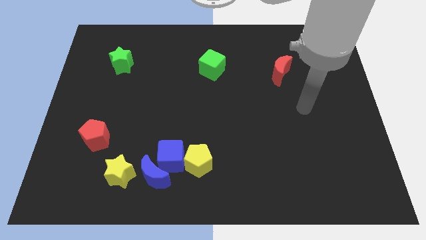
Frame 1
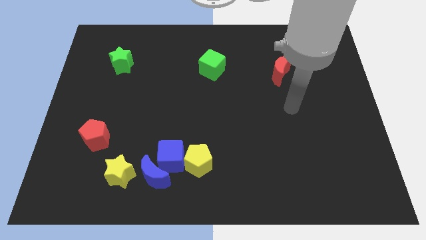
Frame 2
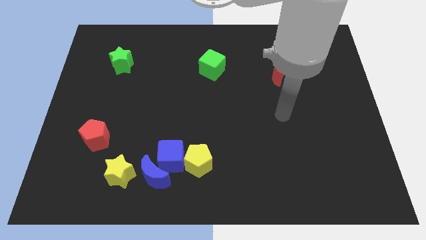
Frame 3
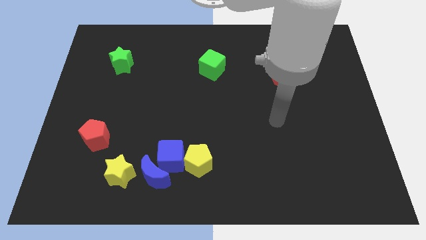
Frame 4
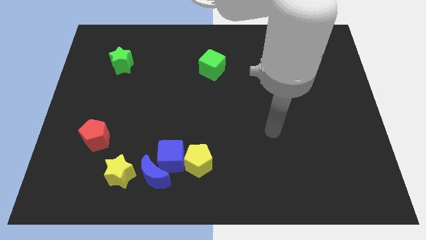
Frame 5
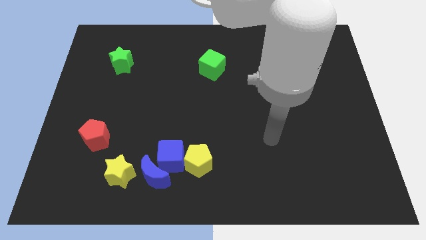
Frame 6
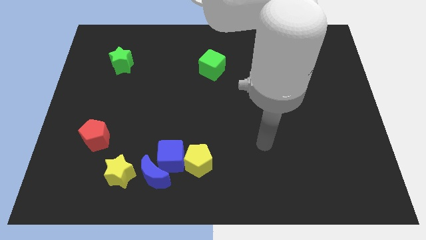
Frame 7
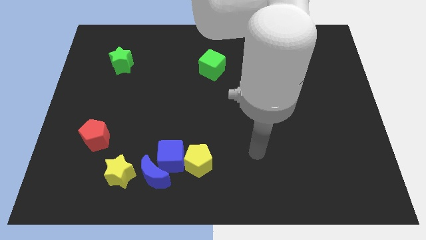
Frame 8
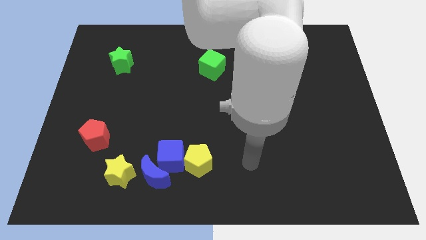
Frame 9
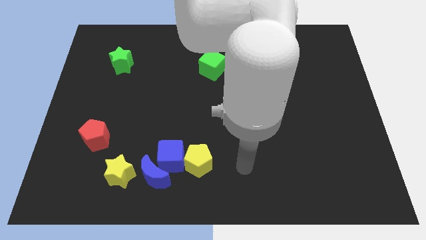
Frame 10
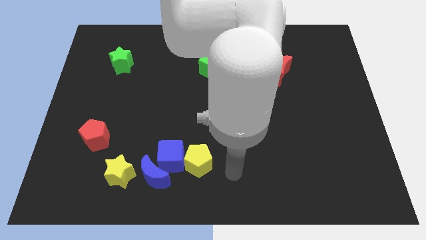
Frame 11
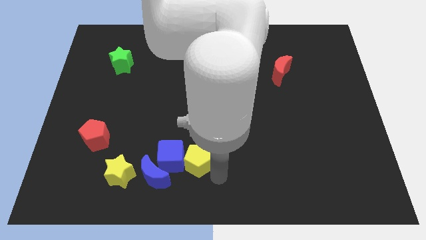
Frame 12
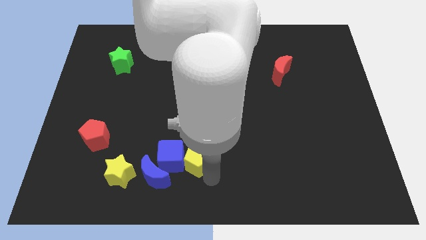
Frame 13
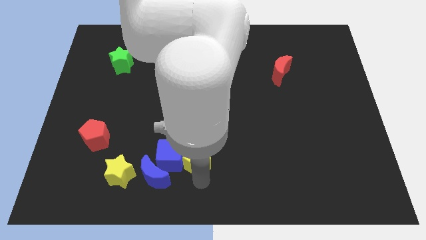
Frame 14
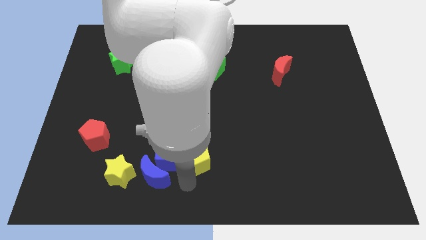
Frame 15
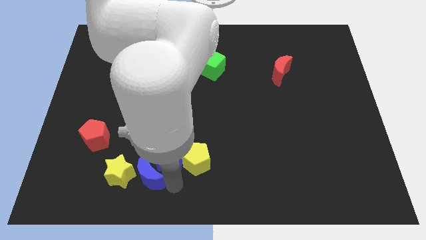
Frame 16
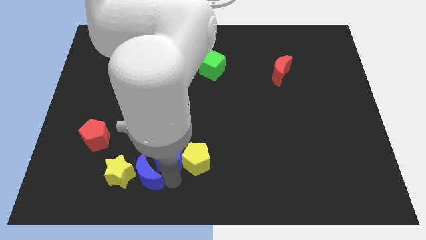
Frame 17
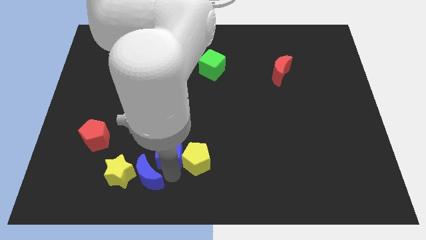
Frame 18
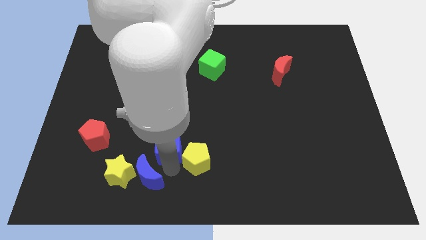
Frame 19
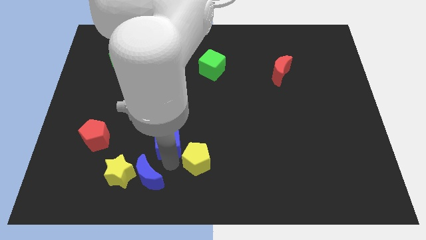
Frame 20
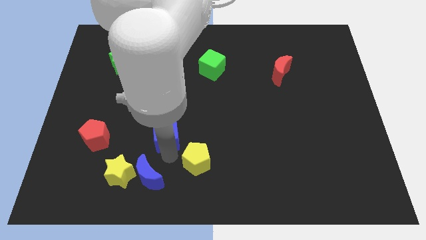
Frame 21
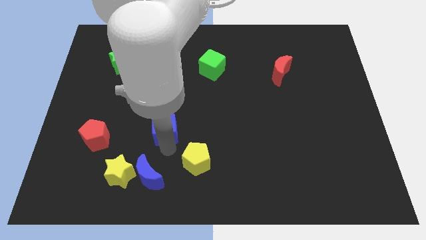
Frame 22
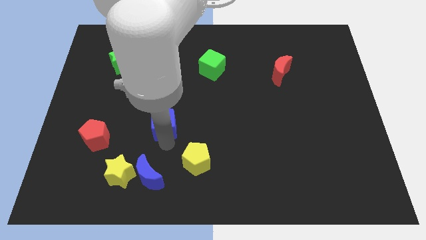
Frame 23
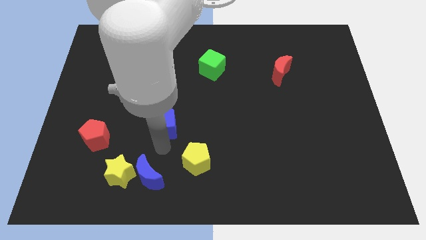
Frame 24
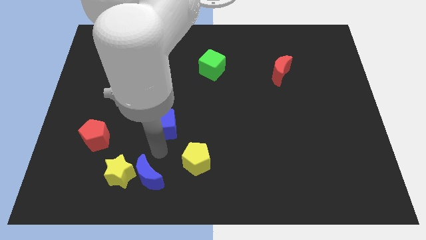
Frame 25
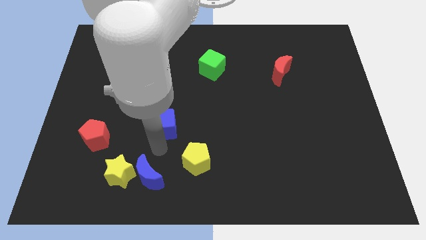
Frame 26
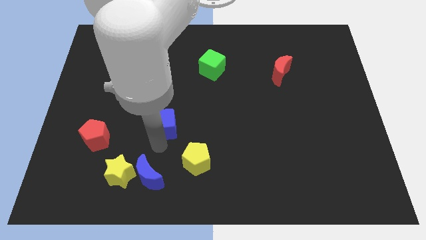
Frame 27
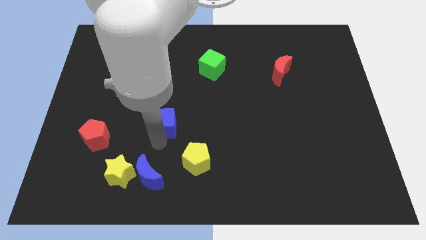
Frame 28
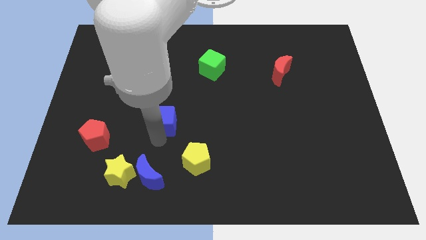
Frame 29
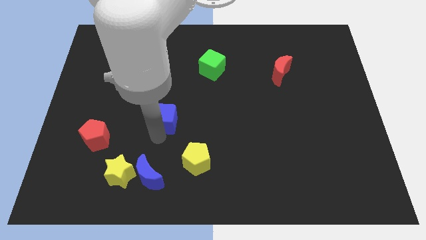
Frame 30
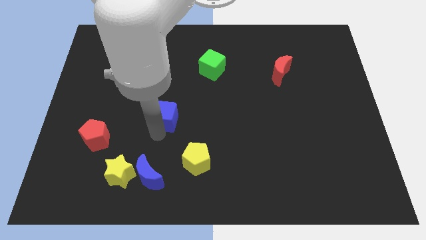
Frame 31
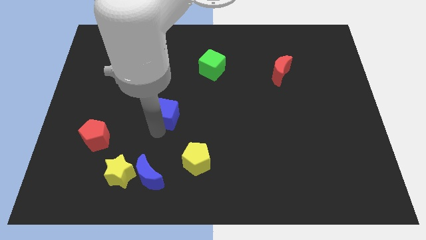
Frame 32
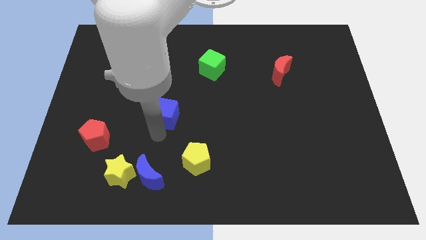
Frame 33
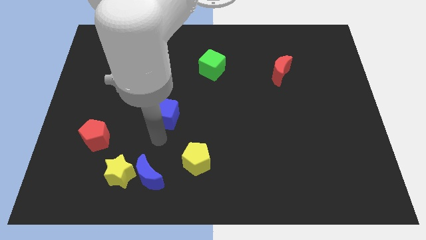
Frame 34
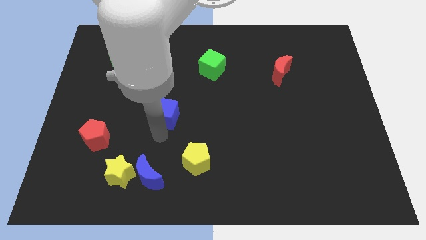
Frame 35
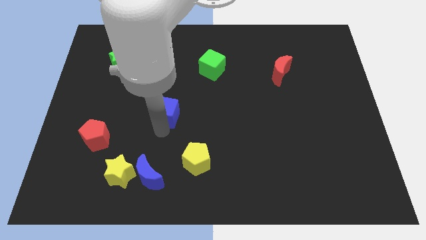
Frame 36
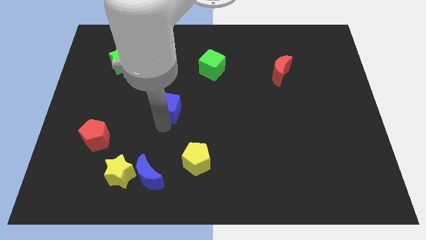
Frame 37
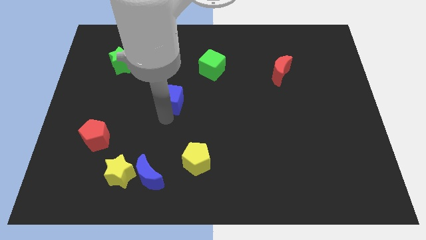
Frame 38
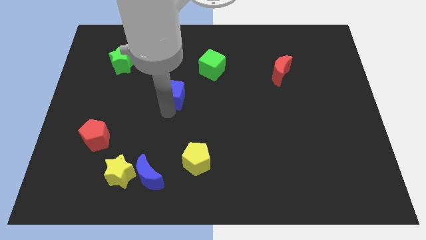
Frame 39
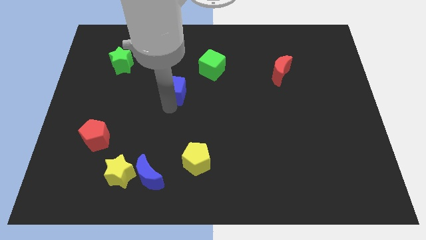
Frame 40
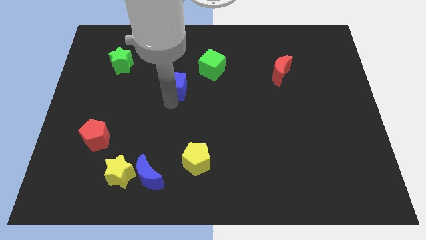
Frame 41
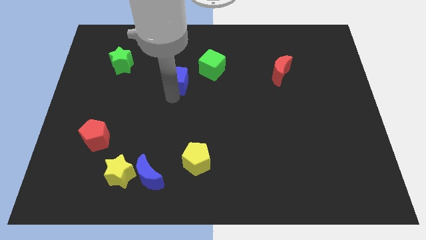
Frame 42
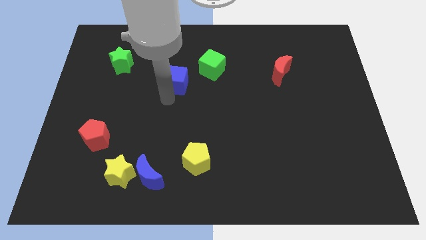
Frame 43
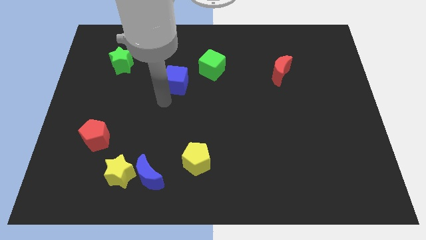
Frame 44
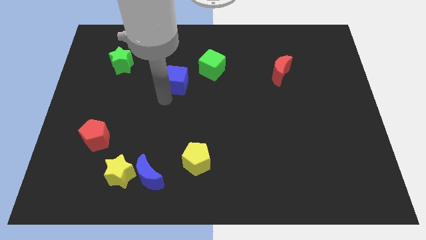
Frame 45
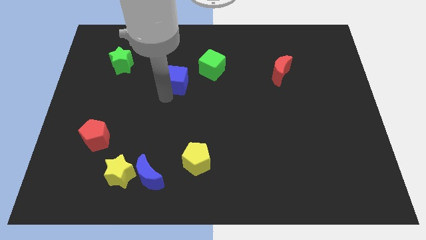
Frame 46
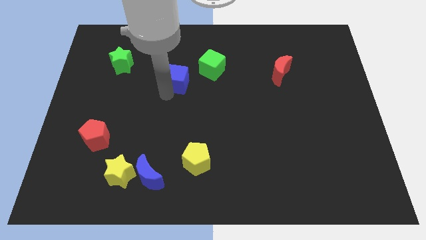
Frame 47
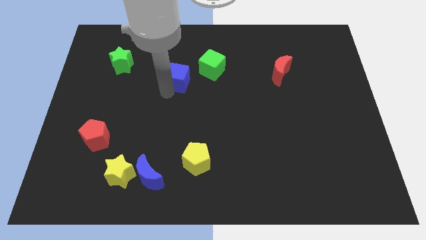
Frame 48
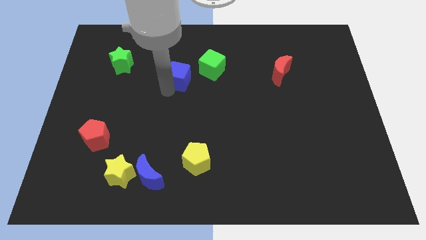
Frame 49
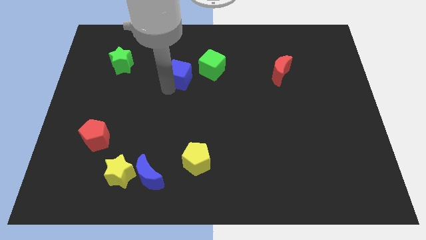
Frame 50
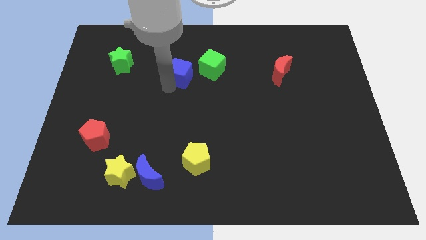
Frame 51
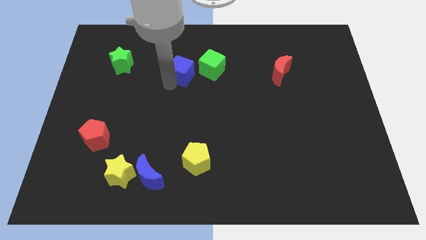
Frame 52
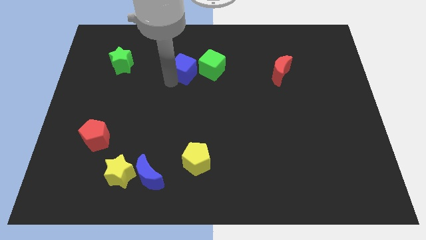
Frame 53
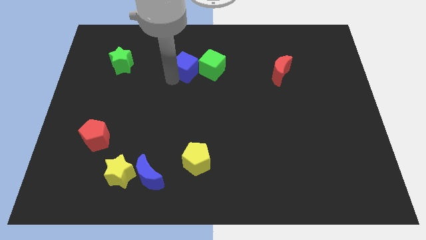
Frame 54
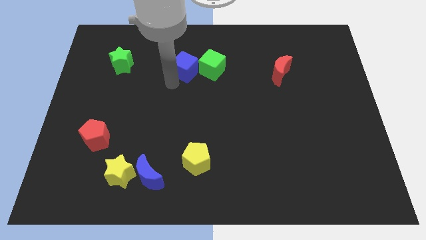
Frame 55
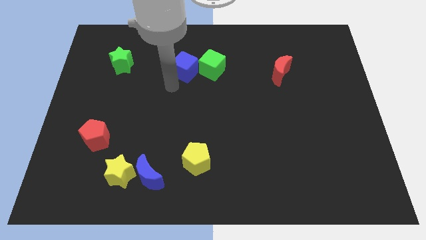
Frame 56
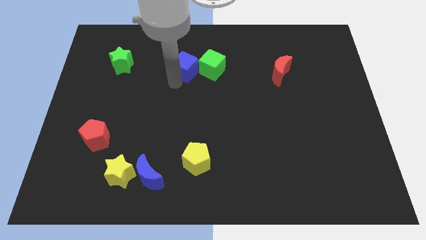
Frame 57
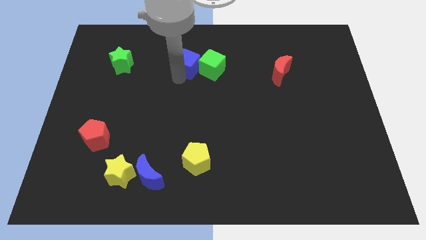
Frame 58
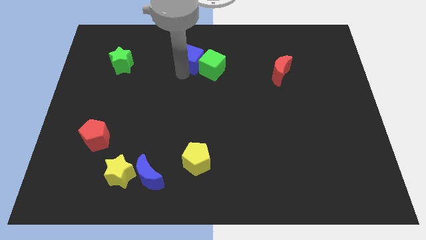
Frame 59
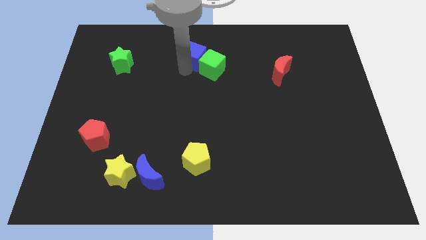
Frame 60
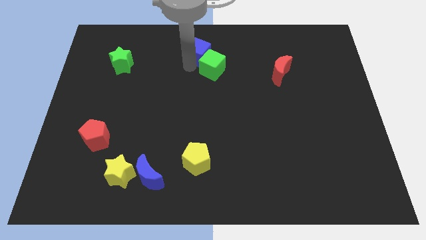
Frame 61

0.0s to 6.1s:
put the blue cube to the top side

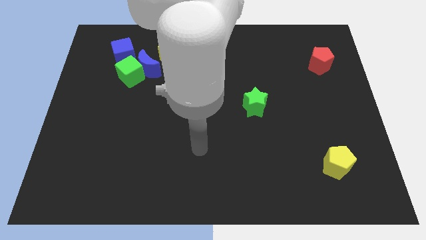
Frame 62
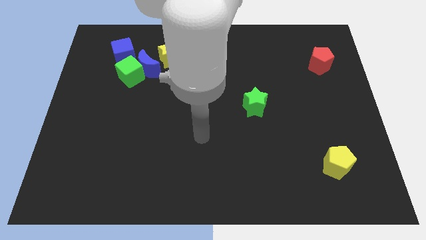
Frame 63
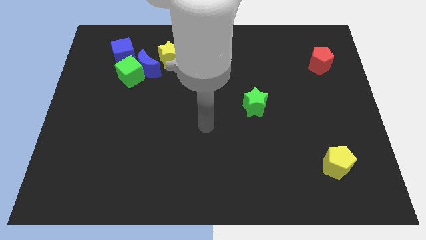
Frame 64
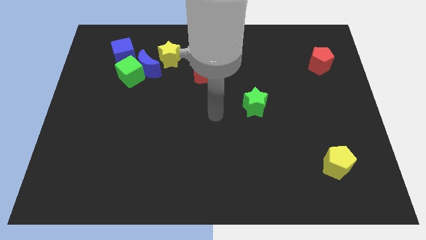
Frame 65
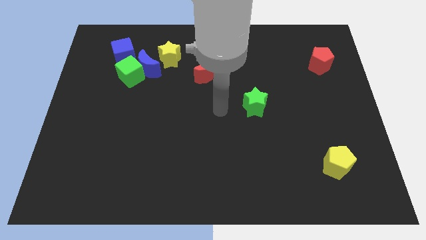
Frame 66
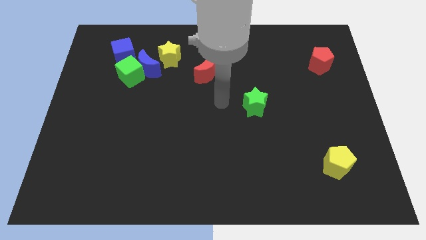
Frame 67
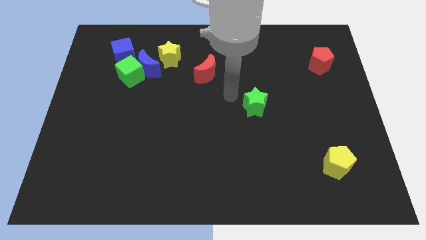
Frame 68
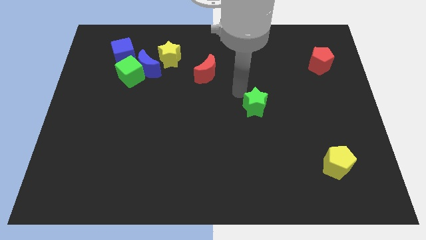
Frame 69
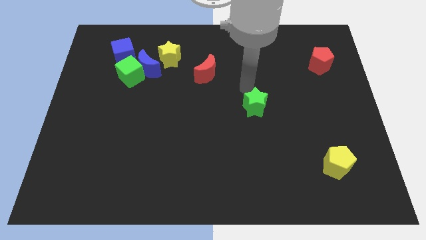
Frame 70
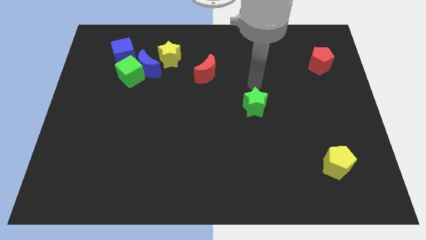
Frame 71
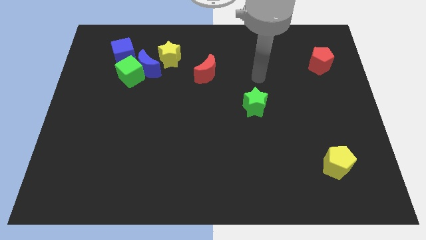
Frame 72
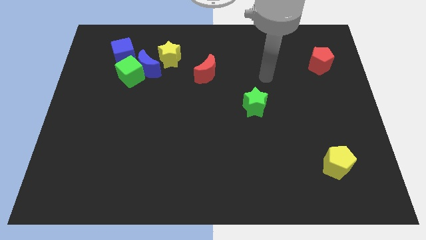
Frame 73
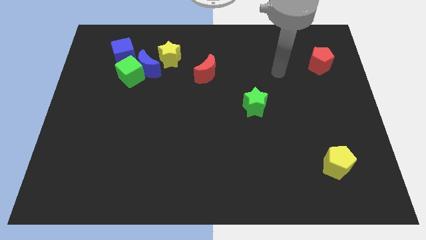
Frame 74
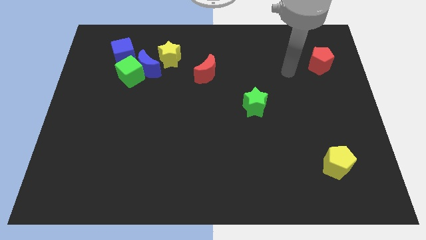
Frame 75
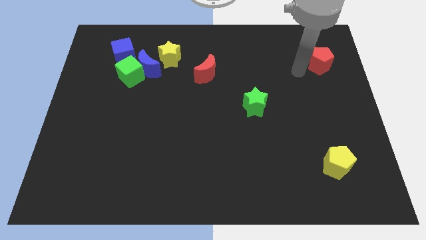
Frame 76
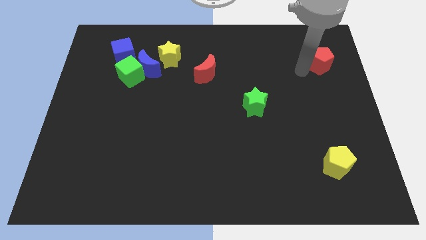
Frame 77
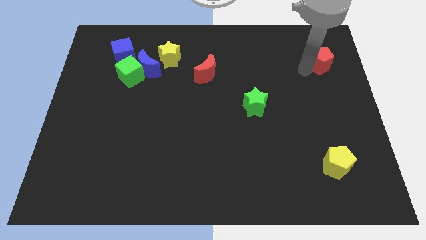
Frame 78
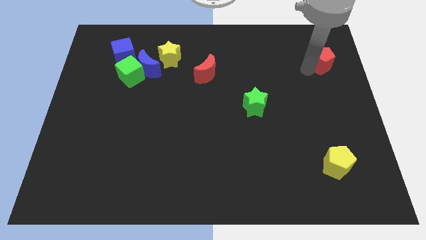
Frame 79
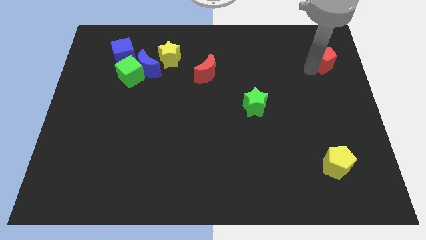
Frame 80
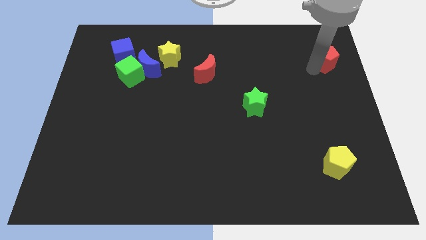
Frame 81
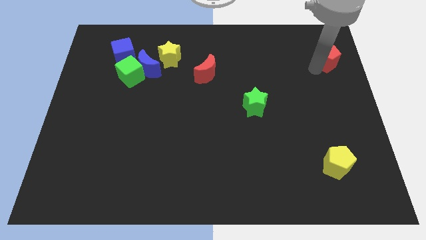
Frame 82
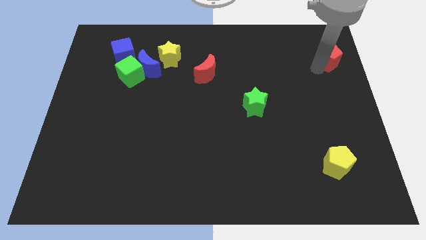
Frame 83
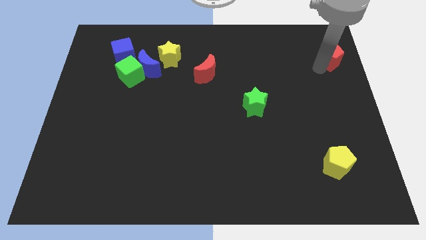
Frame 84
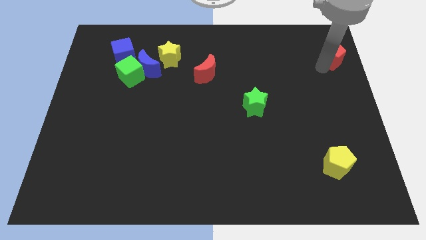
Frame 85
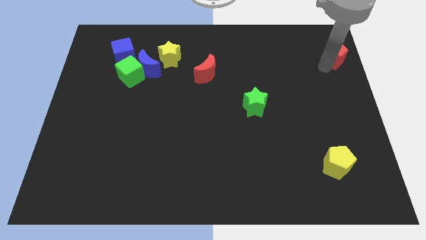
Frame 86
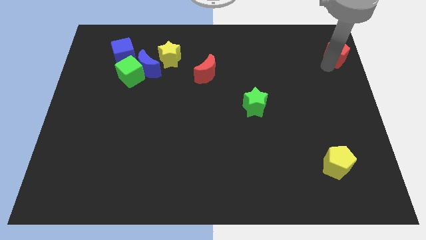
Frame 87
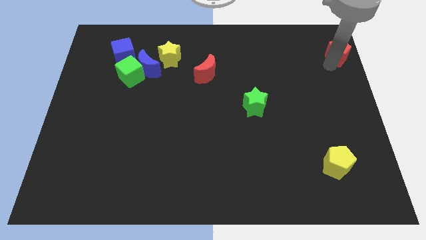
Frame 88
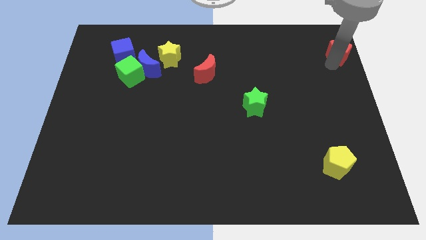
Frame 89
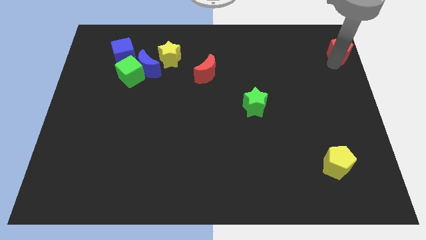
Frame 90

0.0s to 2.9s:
put the red pentagon to the top right
